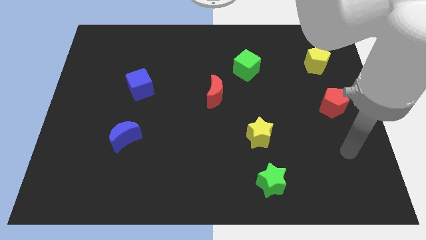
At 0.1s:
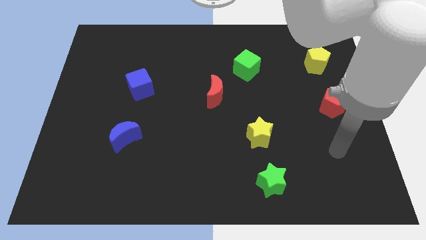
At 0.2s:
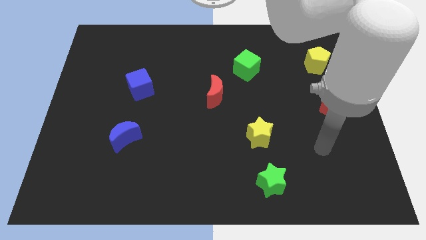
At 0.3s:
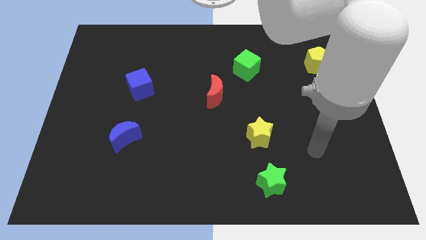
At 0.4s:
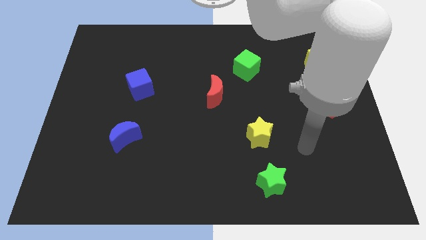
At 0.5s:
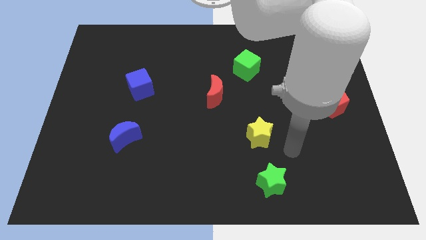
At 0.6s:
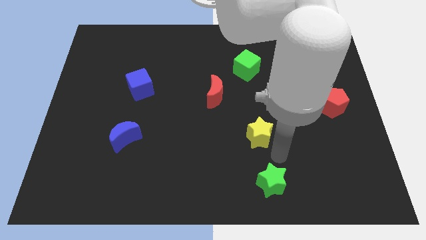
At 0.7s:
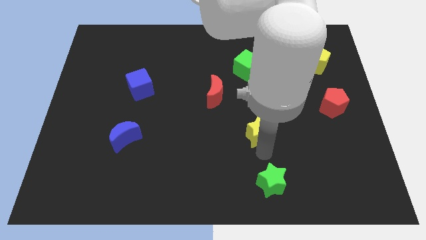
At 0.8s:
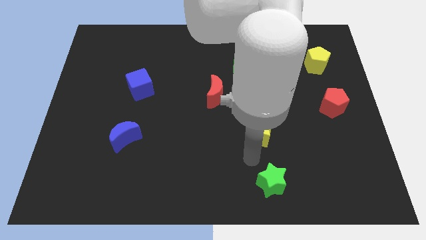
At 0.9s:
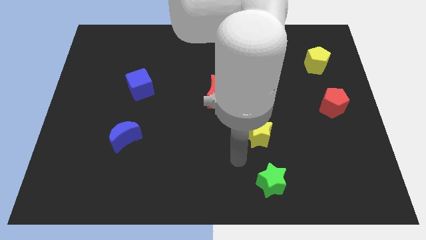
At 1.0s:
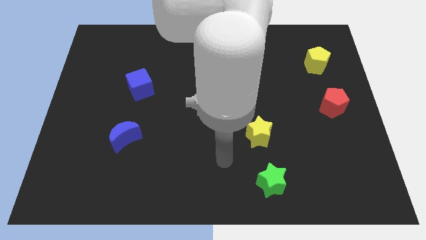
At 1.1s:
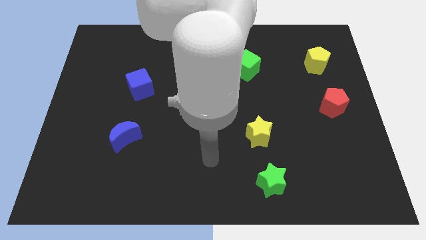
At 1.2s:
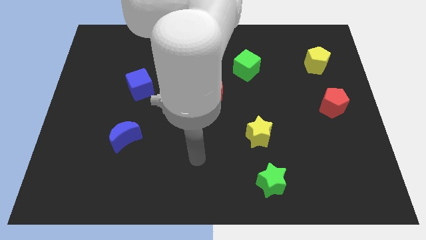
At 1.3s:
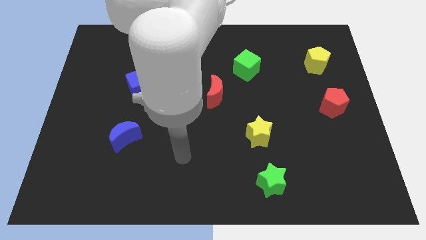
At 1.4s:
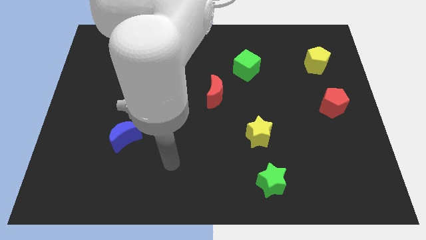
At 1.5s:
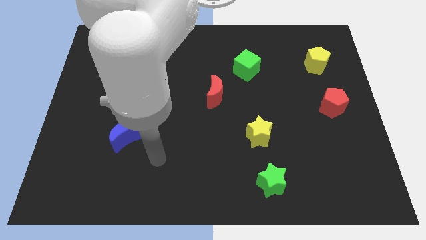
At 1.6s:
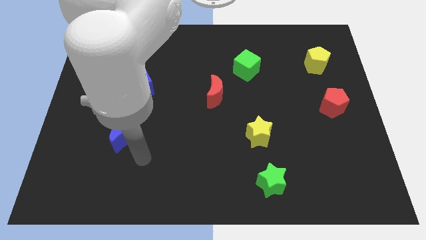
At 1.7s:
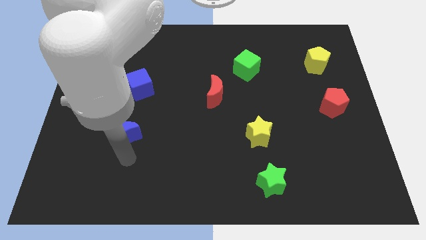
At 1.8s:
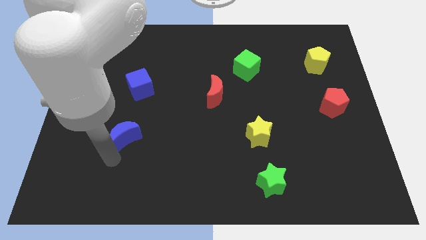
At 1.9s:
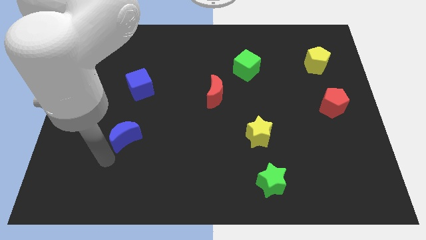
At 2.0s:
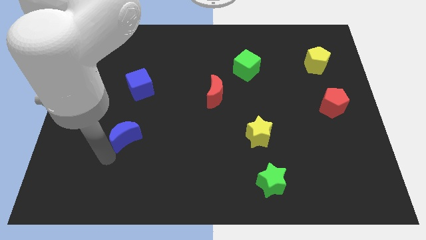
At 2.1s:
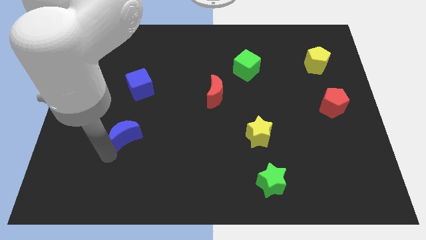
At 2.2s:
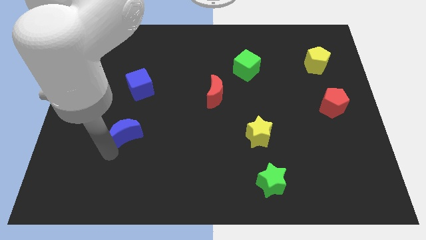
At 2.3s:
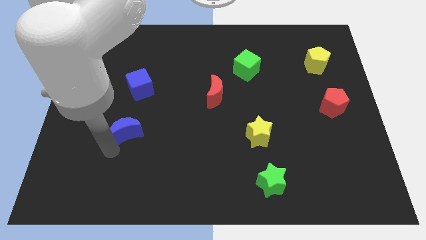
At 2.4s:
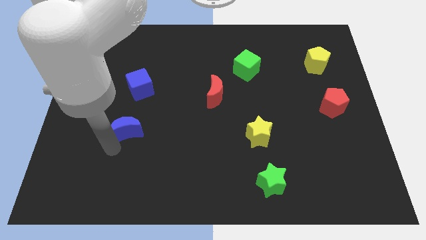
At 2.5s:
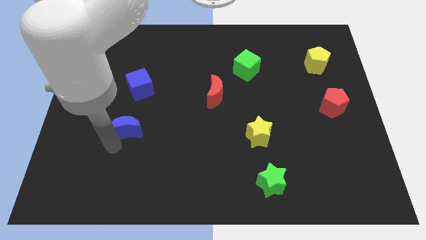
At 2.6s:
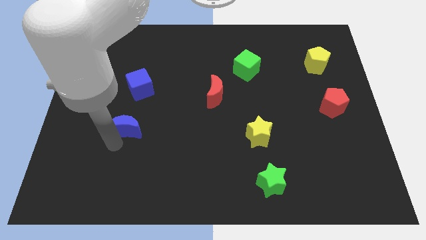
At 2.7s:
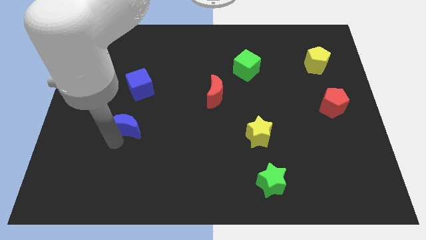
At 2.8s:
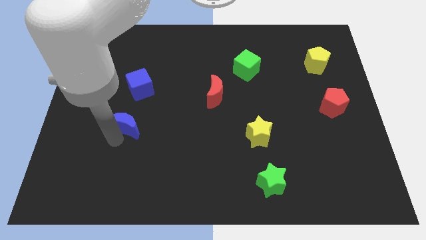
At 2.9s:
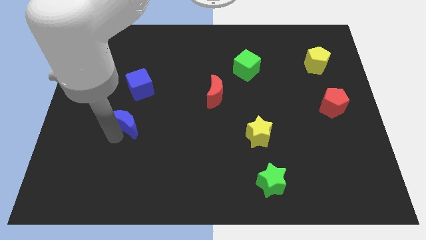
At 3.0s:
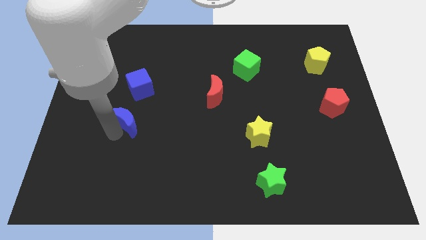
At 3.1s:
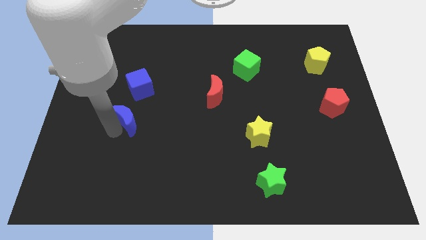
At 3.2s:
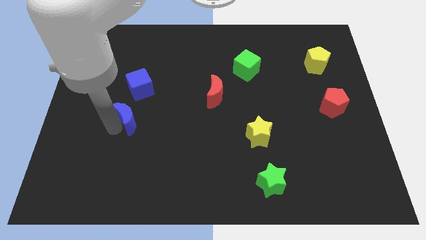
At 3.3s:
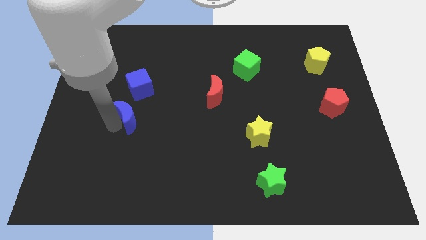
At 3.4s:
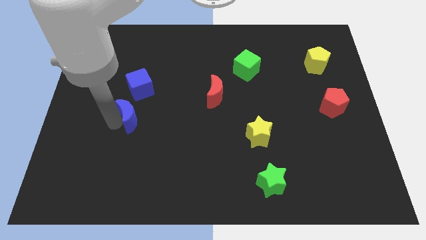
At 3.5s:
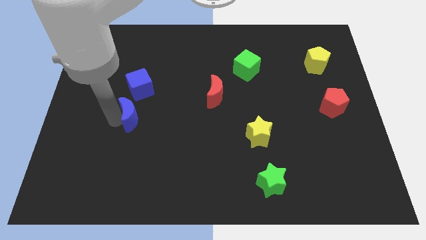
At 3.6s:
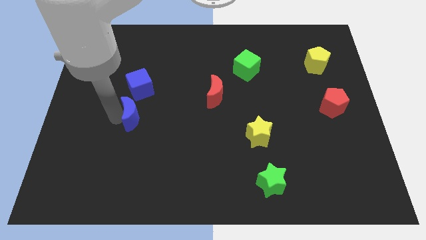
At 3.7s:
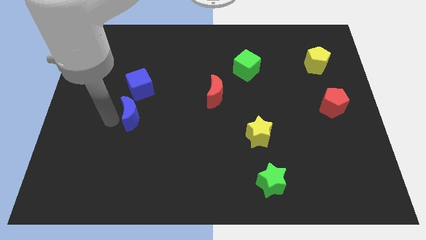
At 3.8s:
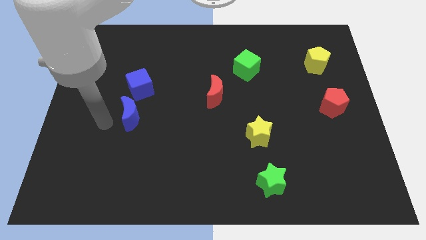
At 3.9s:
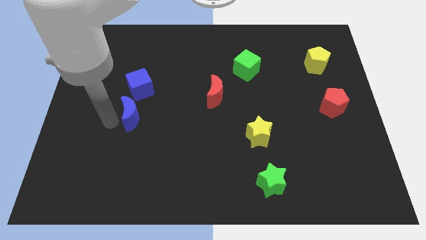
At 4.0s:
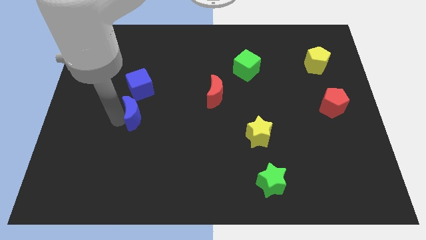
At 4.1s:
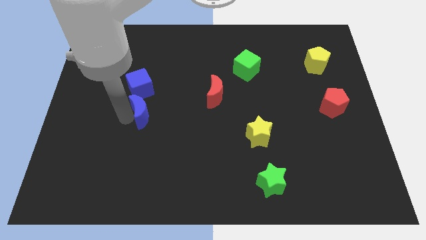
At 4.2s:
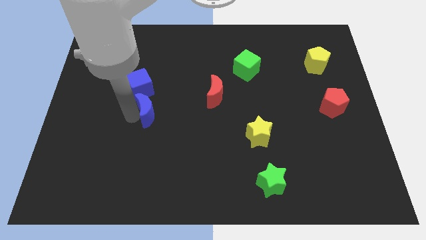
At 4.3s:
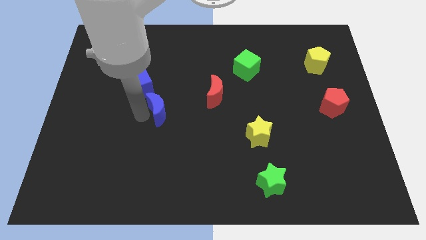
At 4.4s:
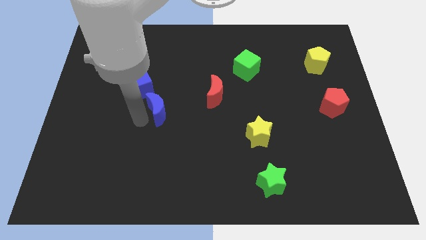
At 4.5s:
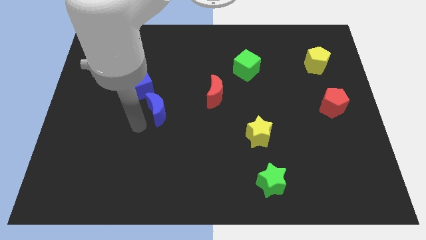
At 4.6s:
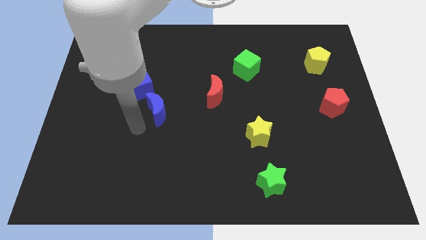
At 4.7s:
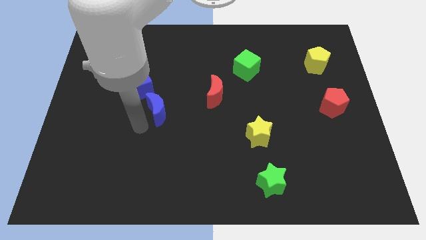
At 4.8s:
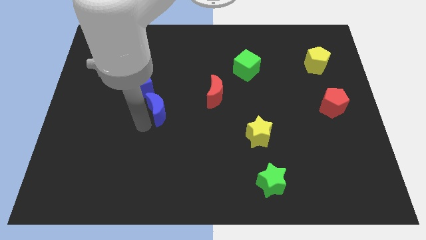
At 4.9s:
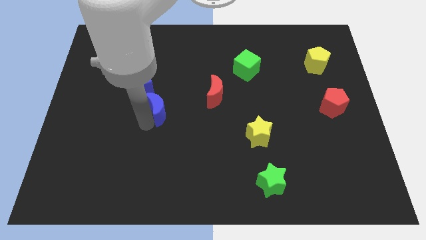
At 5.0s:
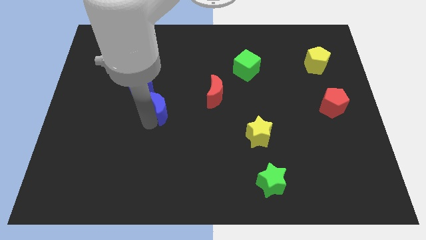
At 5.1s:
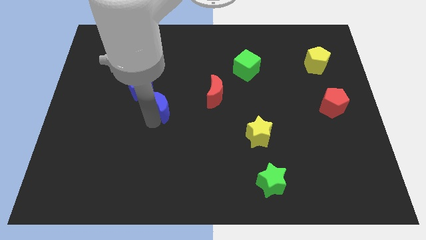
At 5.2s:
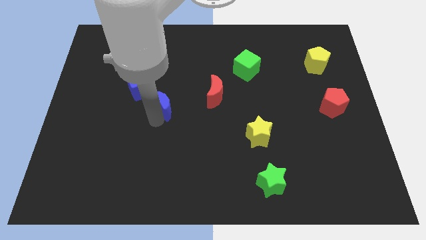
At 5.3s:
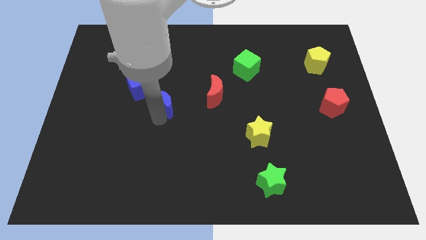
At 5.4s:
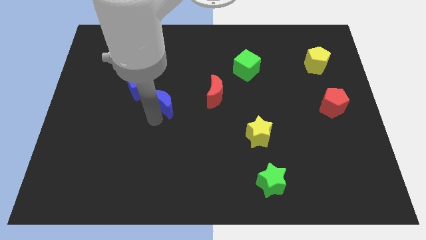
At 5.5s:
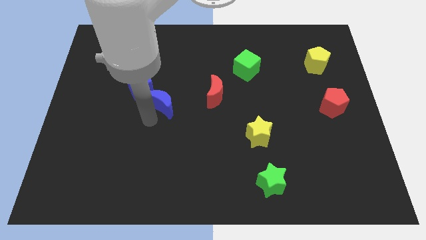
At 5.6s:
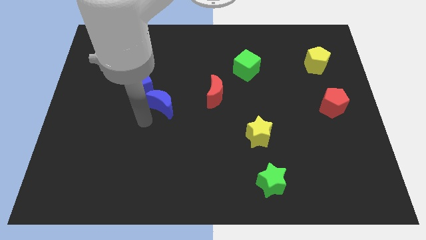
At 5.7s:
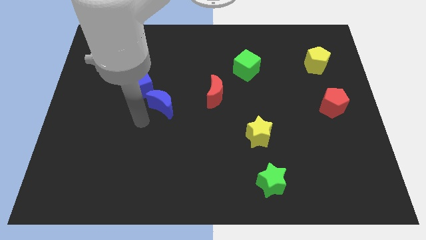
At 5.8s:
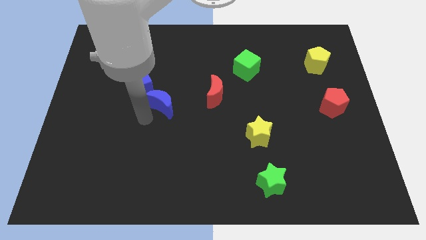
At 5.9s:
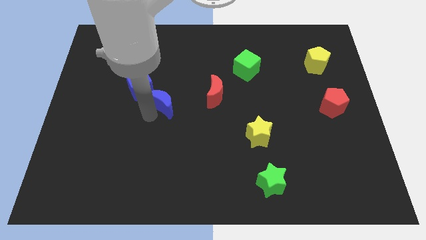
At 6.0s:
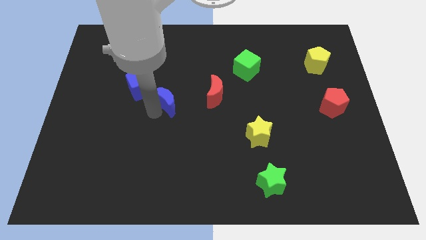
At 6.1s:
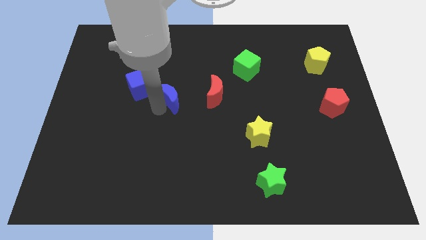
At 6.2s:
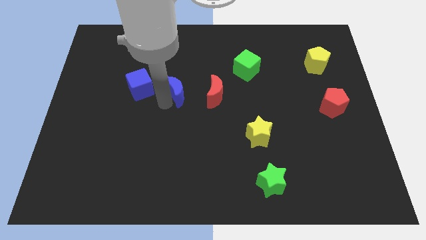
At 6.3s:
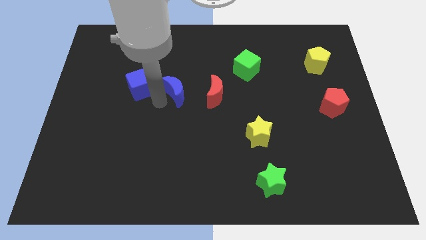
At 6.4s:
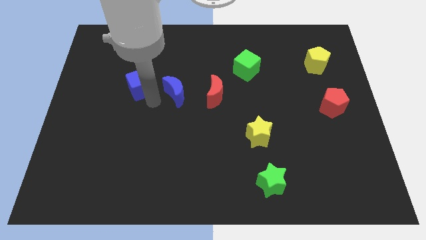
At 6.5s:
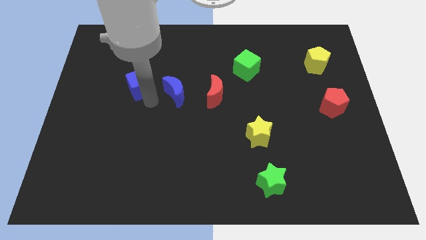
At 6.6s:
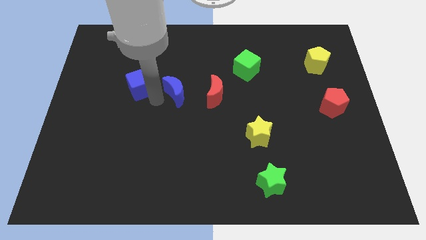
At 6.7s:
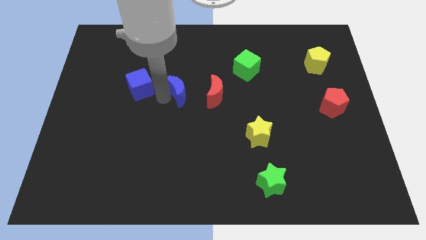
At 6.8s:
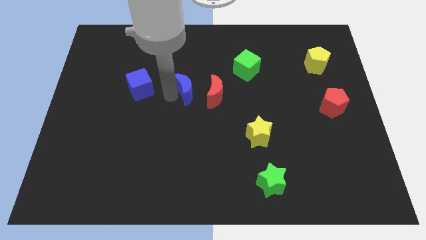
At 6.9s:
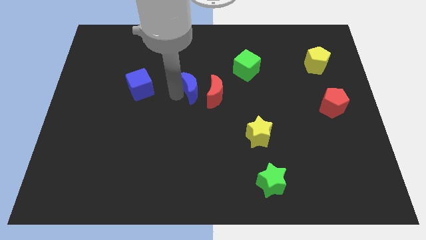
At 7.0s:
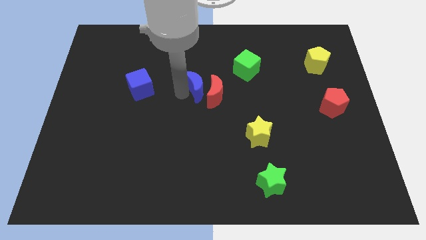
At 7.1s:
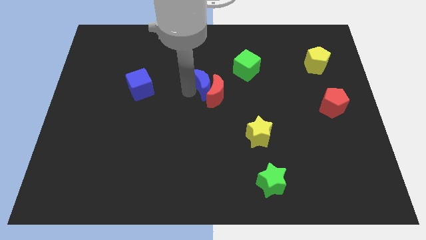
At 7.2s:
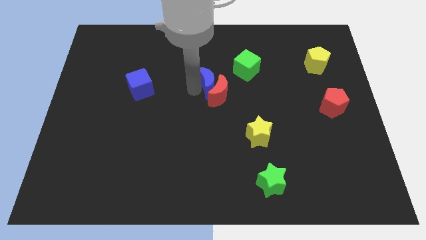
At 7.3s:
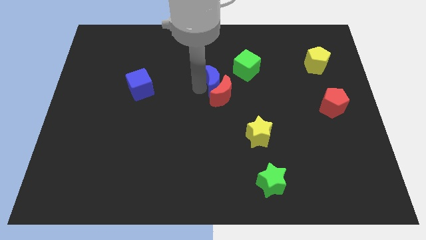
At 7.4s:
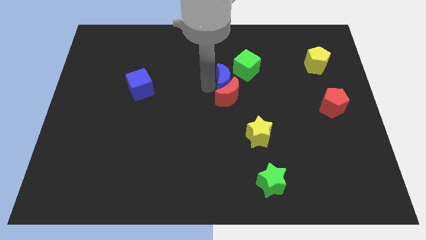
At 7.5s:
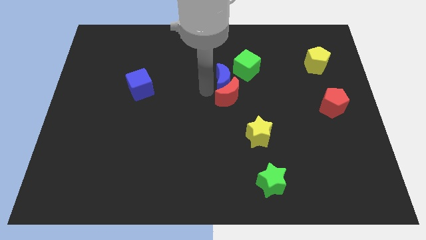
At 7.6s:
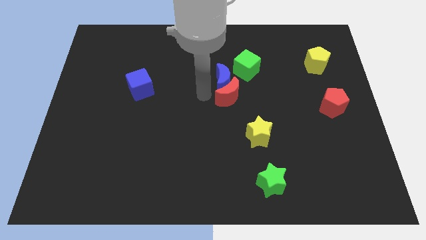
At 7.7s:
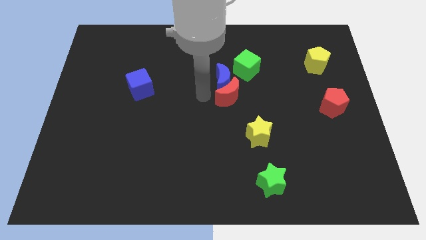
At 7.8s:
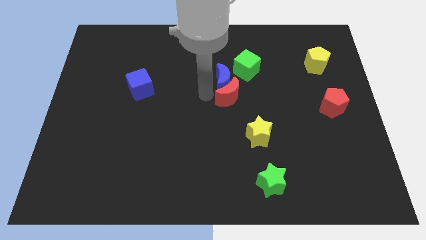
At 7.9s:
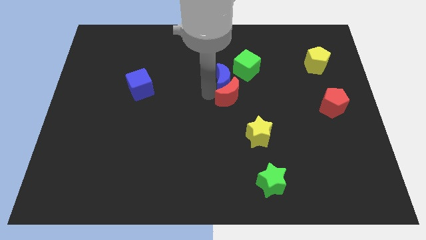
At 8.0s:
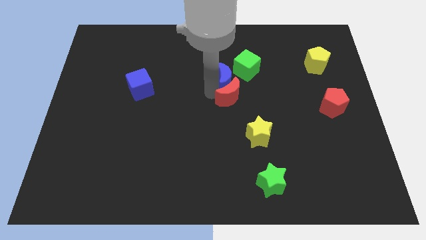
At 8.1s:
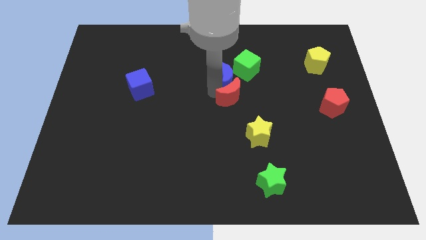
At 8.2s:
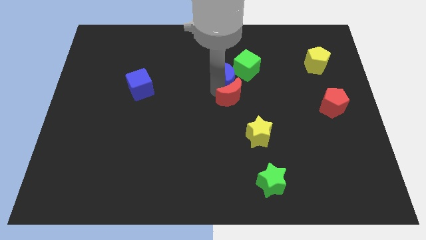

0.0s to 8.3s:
push the blue moon towards the green cube
